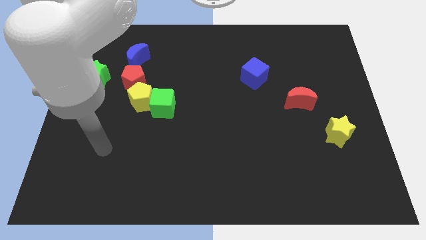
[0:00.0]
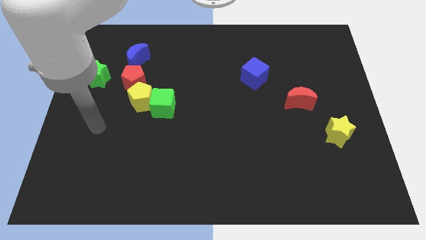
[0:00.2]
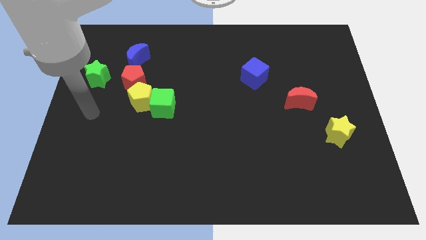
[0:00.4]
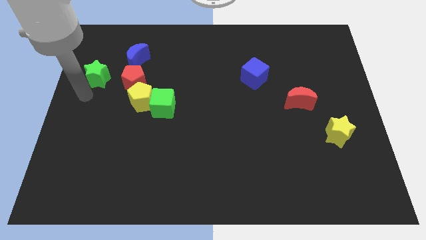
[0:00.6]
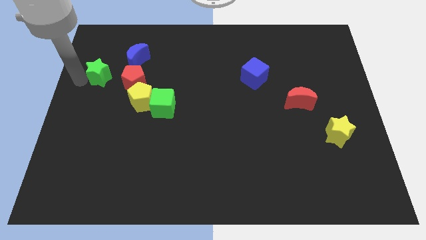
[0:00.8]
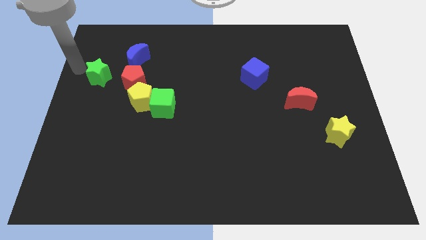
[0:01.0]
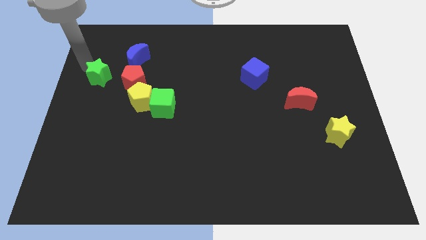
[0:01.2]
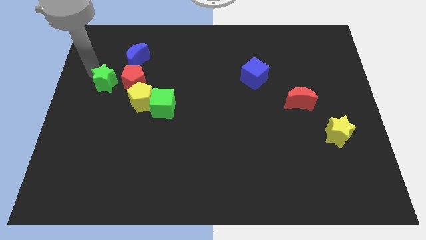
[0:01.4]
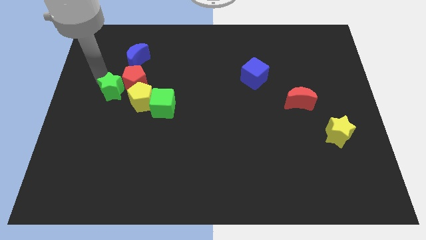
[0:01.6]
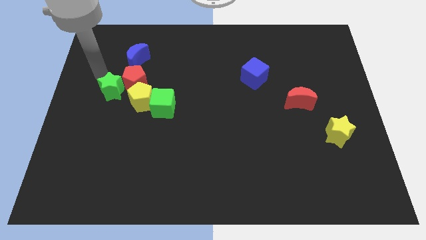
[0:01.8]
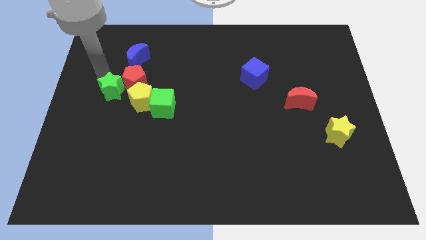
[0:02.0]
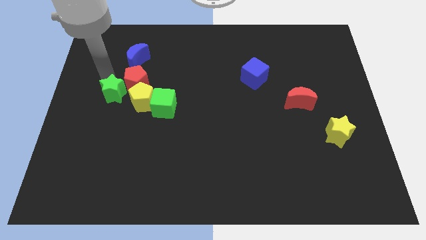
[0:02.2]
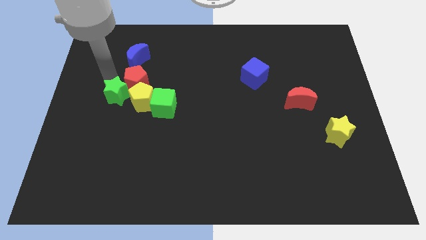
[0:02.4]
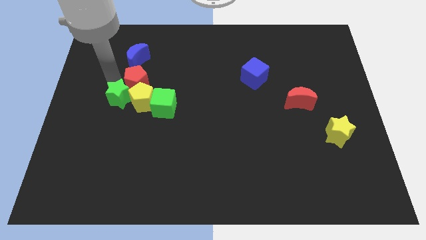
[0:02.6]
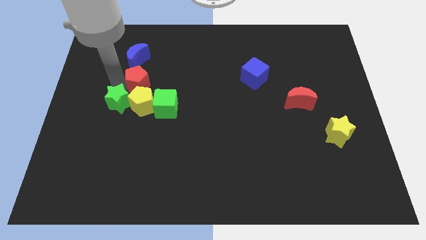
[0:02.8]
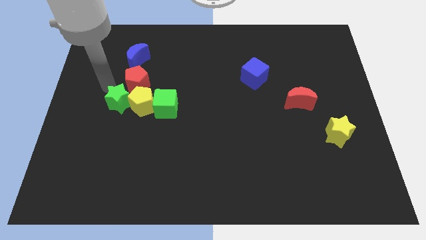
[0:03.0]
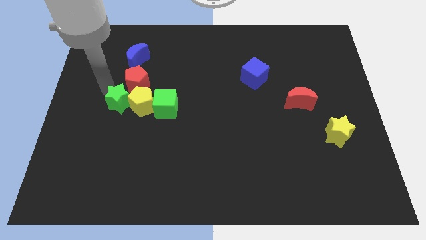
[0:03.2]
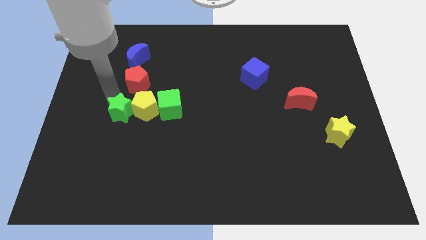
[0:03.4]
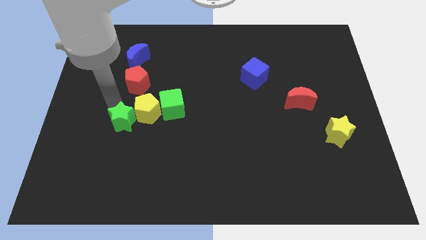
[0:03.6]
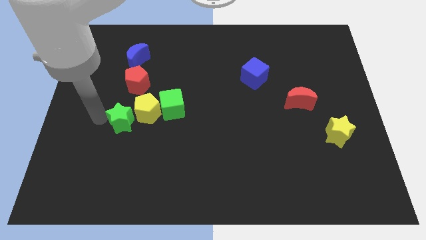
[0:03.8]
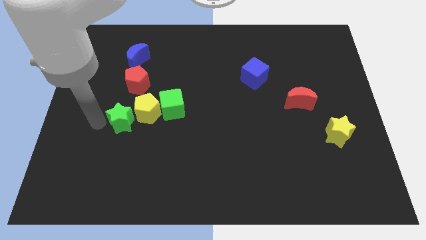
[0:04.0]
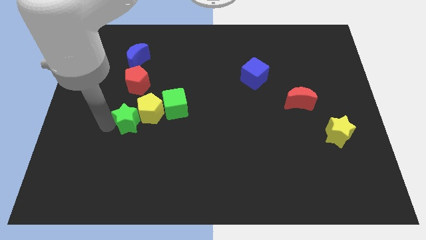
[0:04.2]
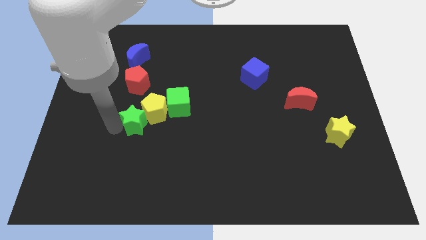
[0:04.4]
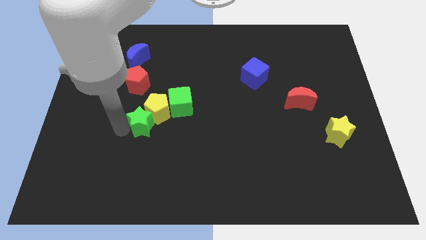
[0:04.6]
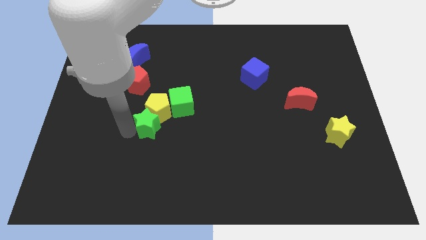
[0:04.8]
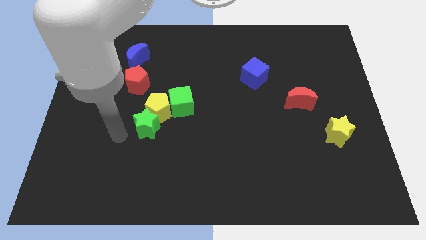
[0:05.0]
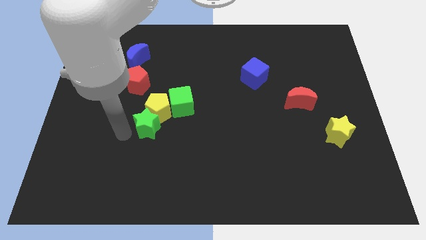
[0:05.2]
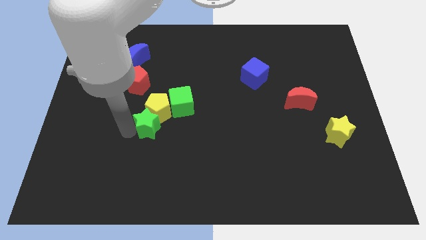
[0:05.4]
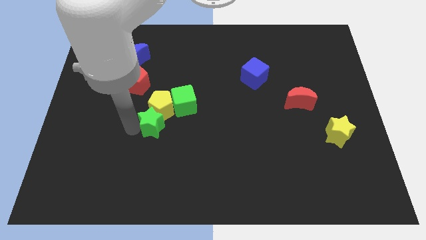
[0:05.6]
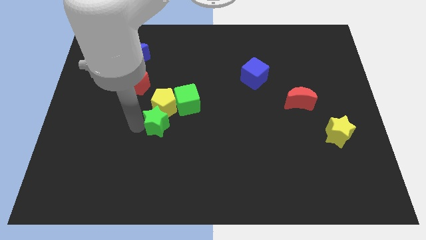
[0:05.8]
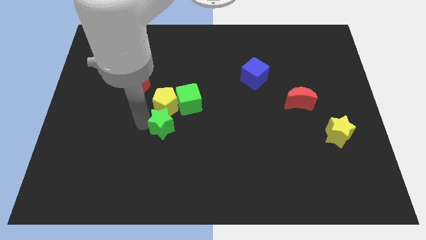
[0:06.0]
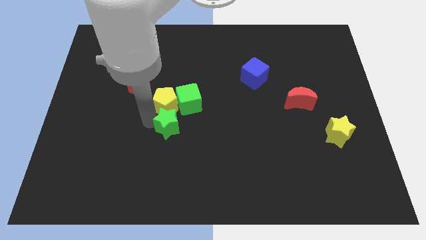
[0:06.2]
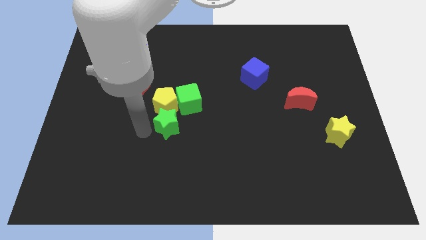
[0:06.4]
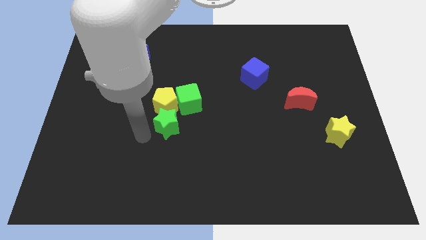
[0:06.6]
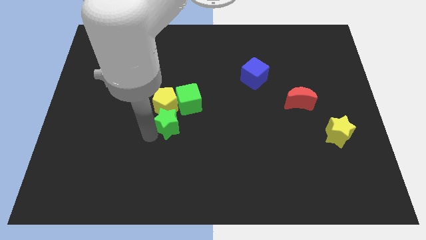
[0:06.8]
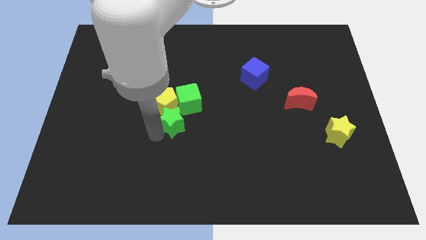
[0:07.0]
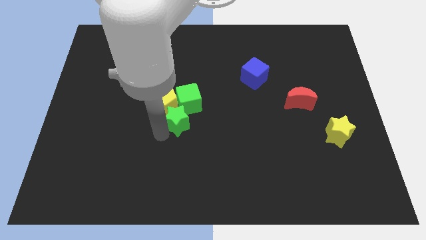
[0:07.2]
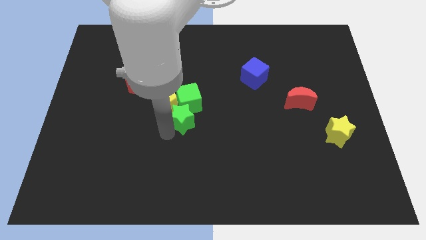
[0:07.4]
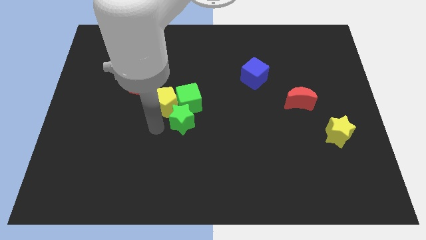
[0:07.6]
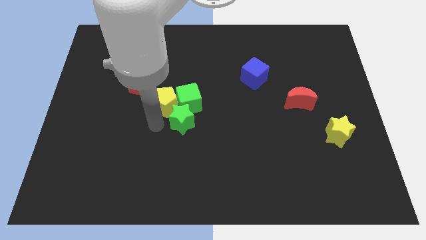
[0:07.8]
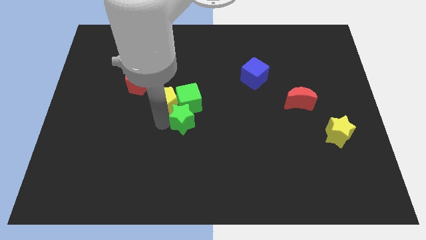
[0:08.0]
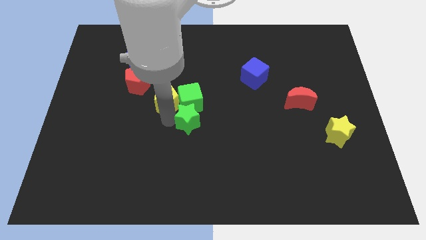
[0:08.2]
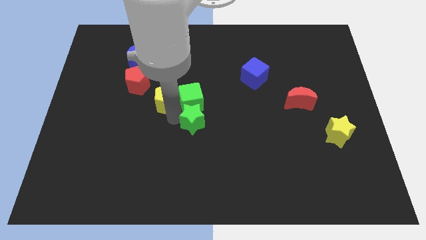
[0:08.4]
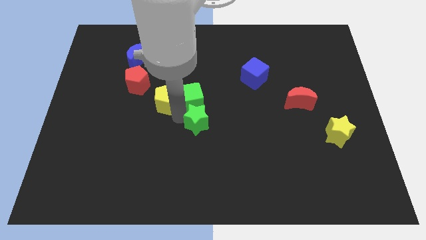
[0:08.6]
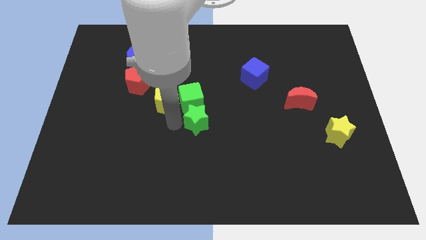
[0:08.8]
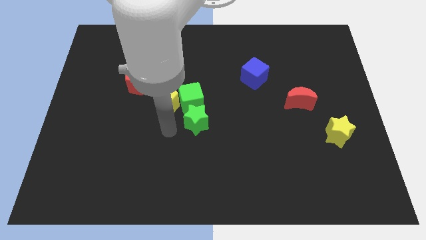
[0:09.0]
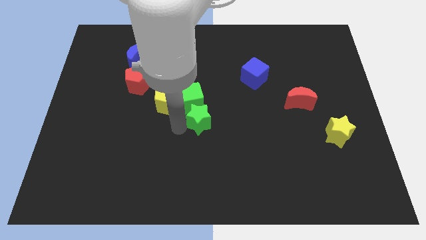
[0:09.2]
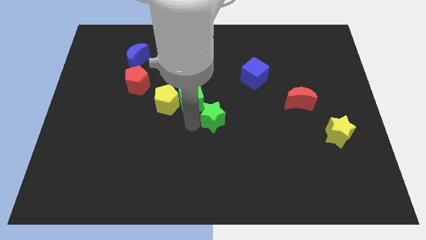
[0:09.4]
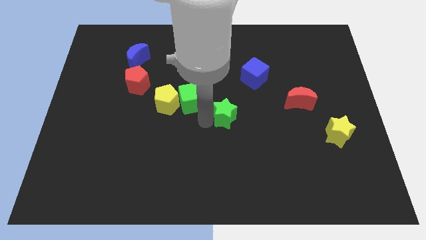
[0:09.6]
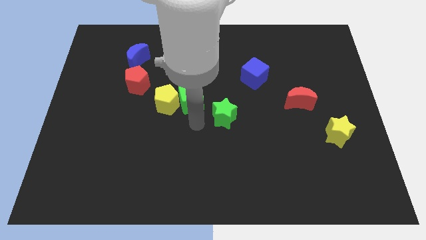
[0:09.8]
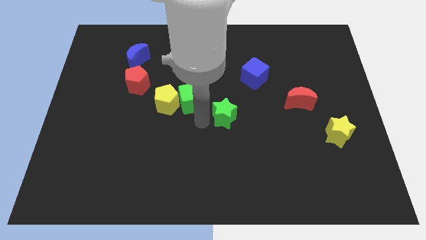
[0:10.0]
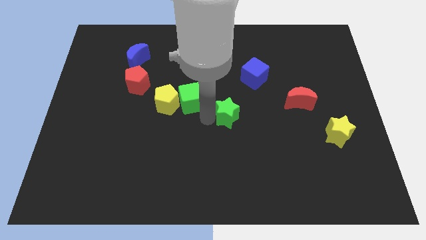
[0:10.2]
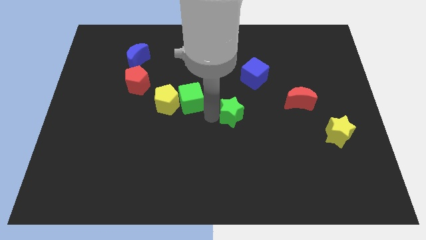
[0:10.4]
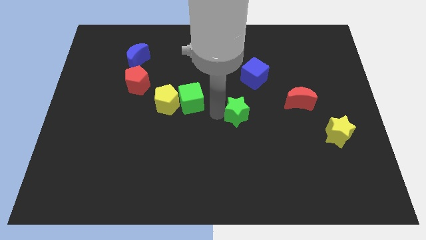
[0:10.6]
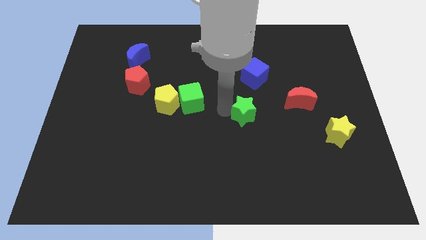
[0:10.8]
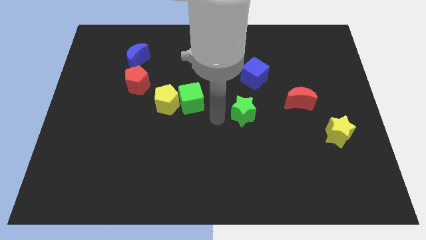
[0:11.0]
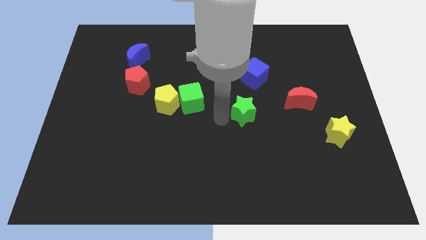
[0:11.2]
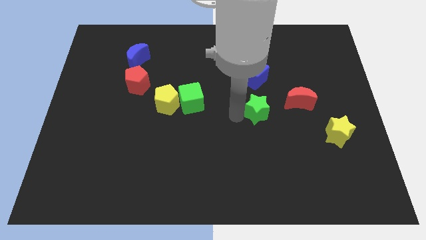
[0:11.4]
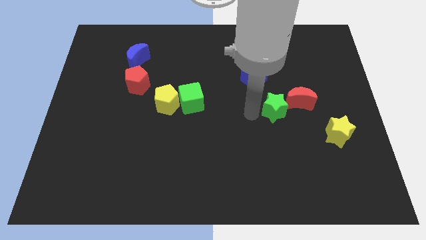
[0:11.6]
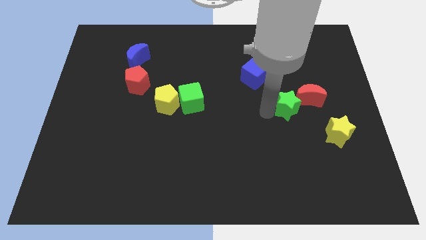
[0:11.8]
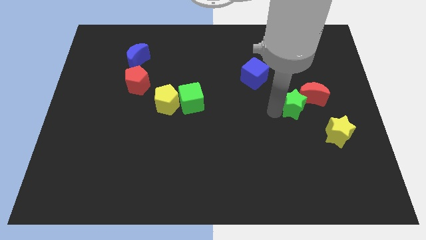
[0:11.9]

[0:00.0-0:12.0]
move the green star close to the red moon

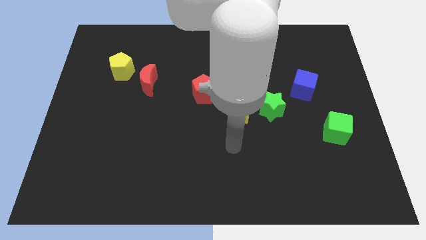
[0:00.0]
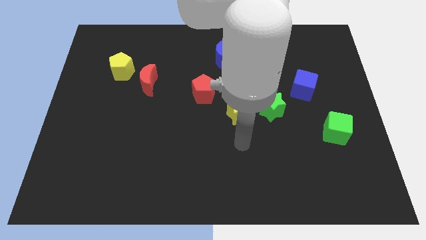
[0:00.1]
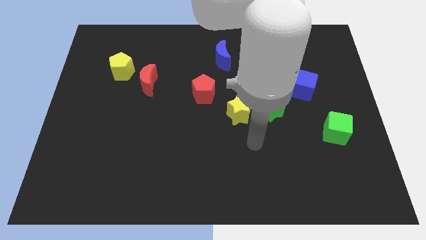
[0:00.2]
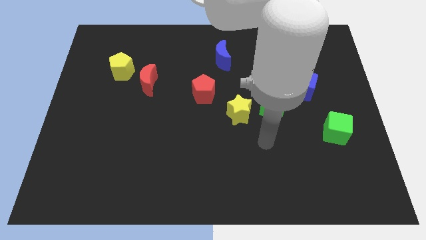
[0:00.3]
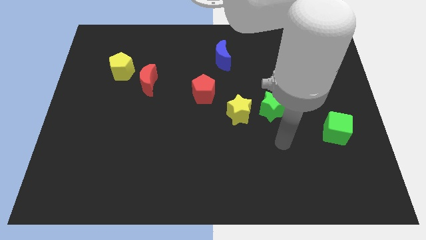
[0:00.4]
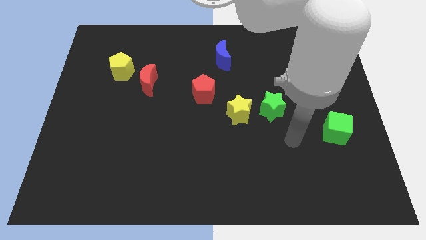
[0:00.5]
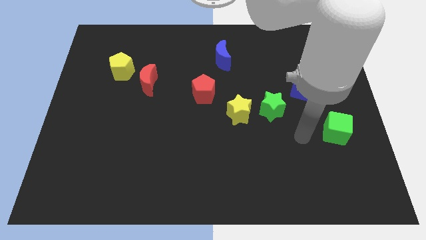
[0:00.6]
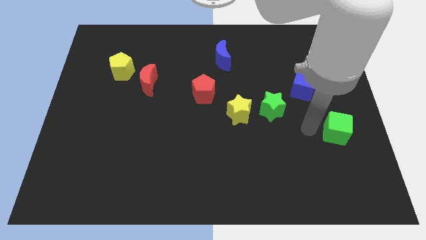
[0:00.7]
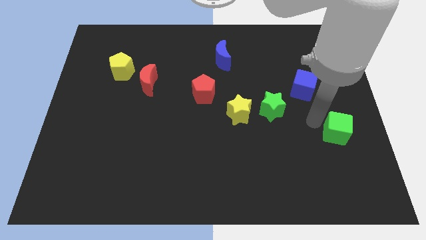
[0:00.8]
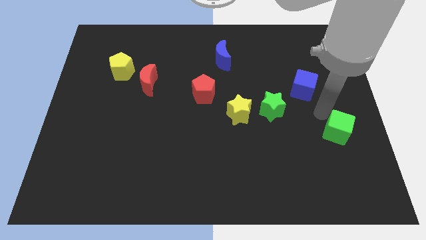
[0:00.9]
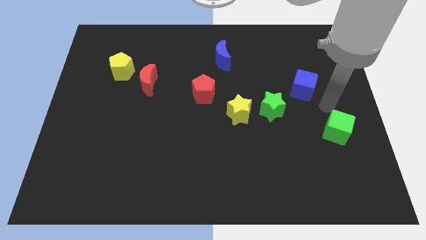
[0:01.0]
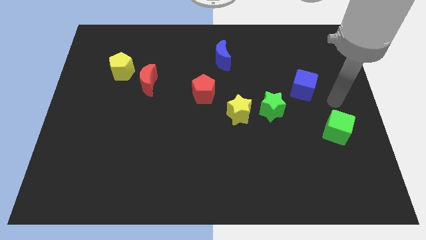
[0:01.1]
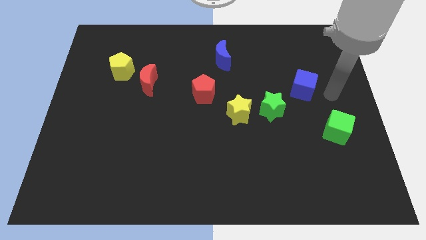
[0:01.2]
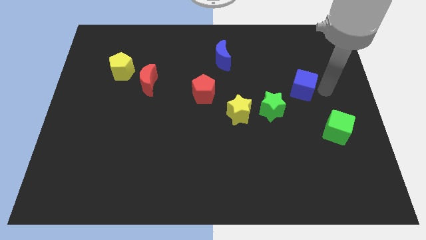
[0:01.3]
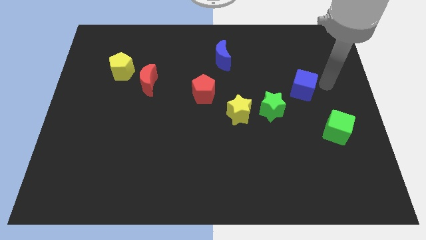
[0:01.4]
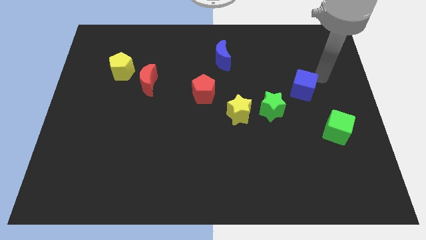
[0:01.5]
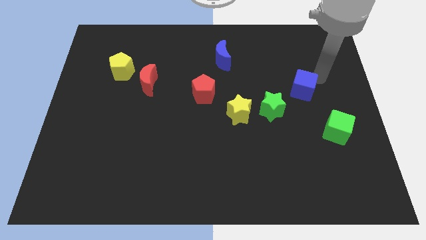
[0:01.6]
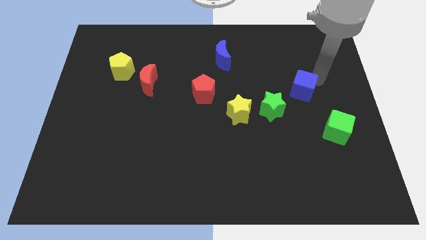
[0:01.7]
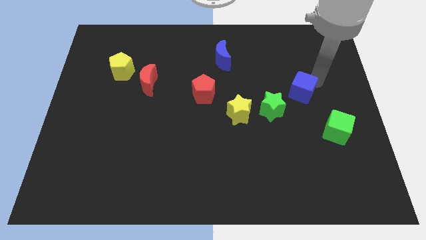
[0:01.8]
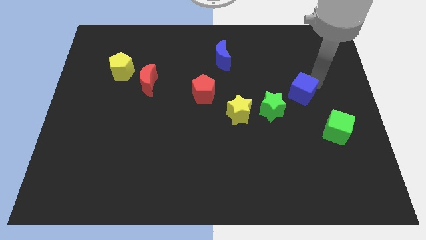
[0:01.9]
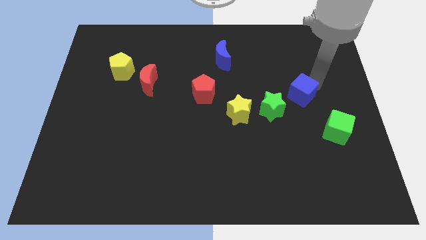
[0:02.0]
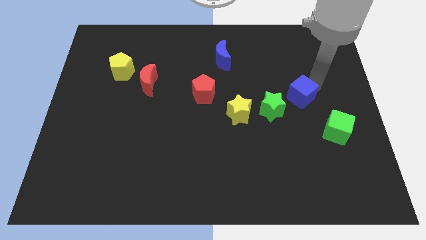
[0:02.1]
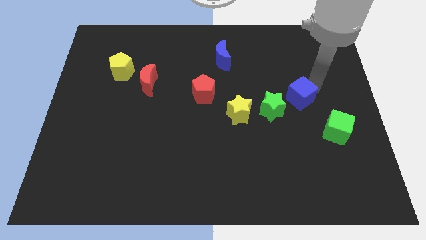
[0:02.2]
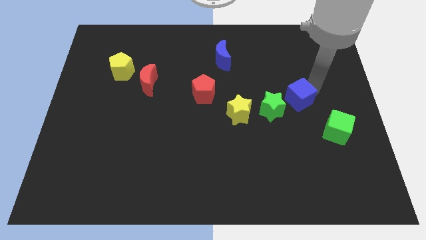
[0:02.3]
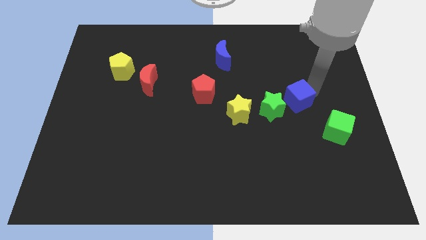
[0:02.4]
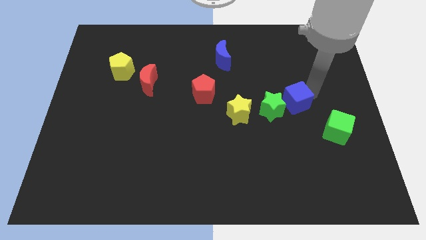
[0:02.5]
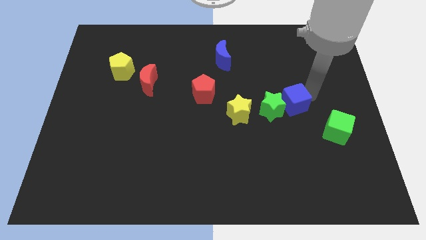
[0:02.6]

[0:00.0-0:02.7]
move the blue cube towards the green star
